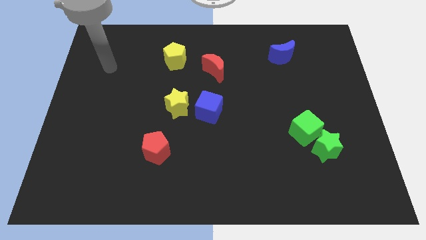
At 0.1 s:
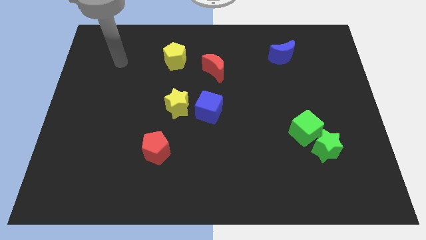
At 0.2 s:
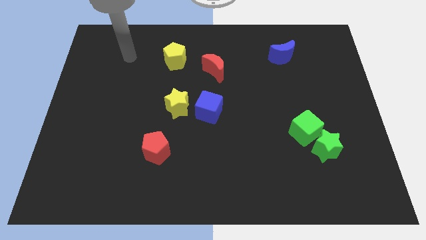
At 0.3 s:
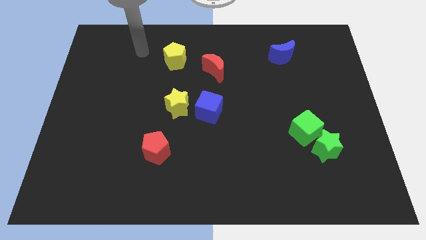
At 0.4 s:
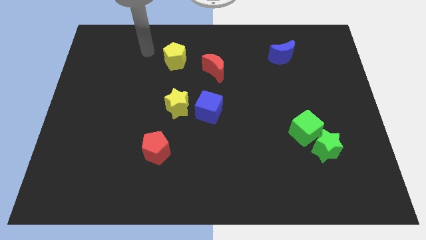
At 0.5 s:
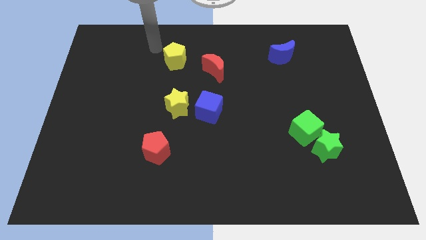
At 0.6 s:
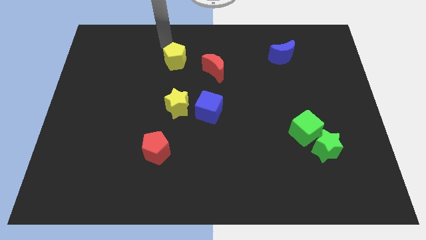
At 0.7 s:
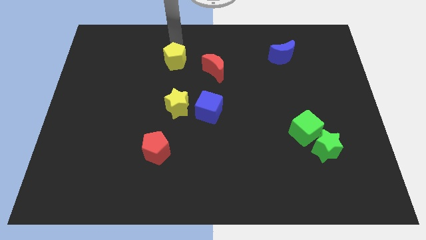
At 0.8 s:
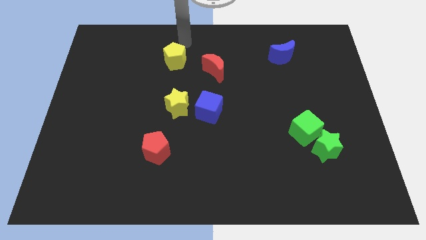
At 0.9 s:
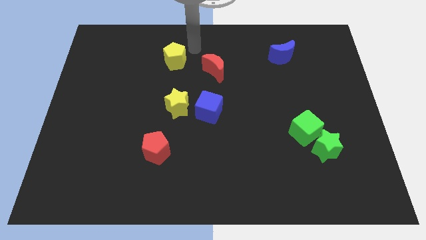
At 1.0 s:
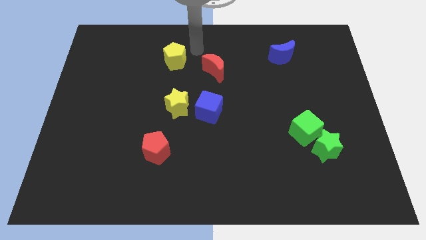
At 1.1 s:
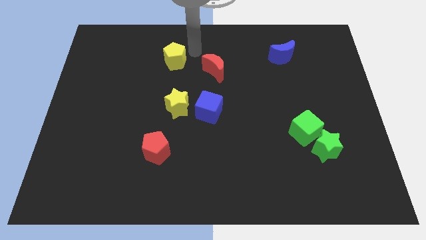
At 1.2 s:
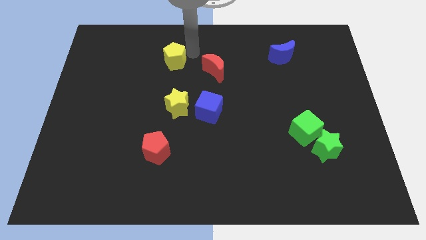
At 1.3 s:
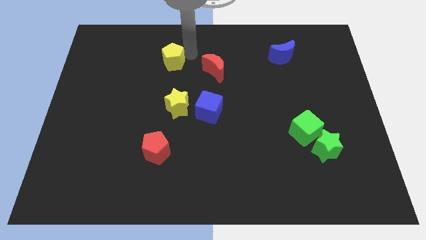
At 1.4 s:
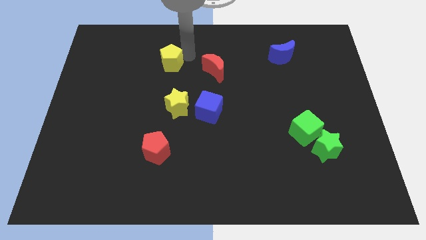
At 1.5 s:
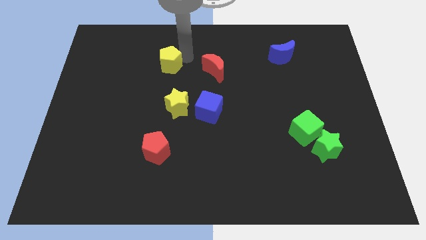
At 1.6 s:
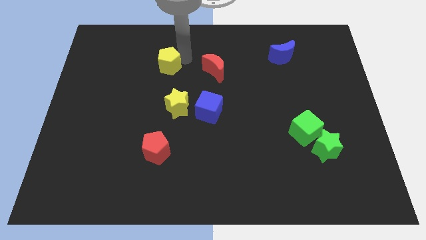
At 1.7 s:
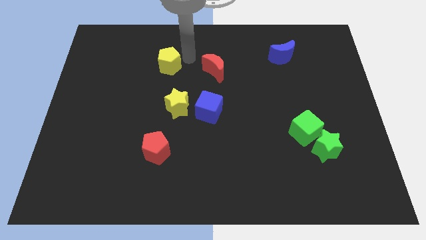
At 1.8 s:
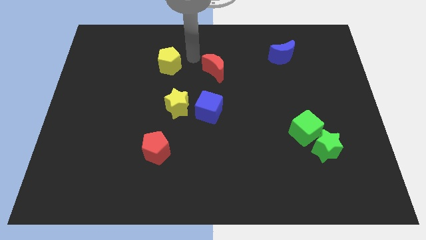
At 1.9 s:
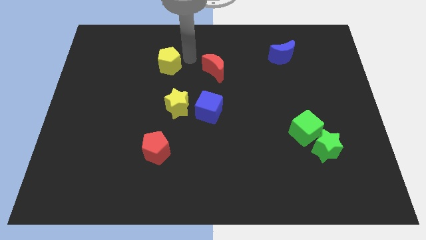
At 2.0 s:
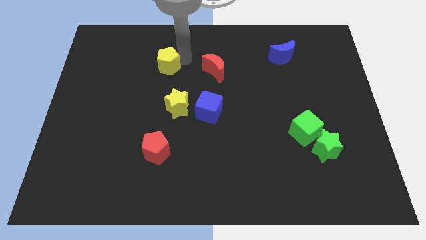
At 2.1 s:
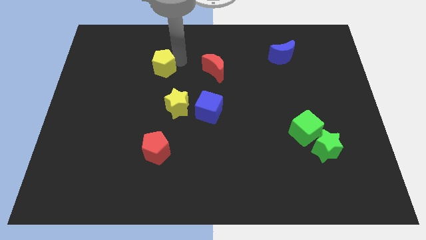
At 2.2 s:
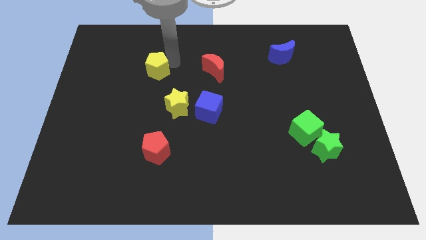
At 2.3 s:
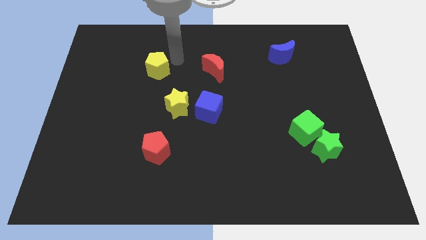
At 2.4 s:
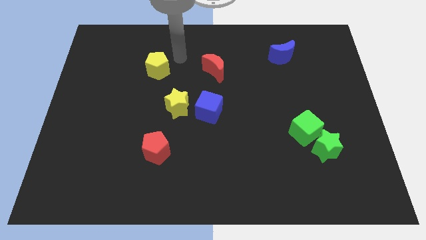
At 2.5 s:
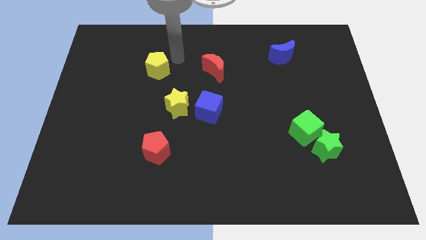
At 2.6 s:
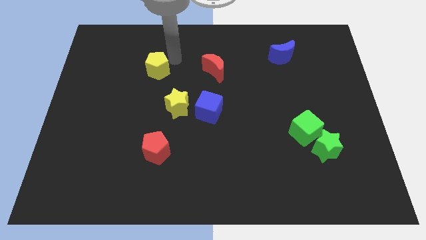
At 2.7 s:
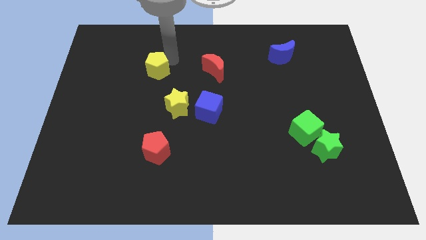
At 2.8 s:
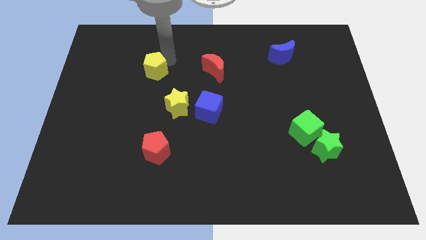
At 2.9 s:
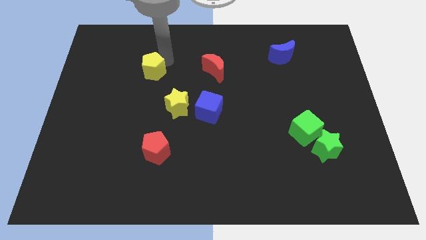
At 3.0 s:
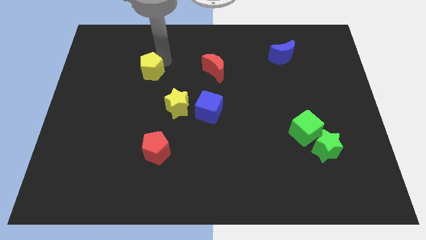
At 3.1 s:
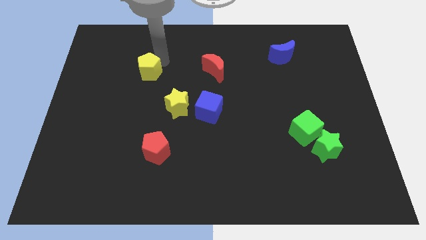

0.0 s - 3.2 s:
slightly move the yellow pentagon diagonally down and to the left

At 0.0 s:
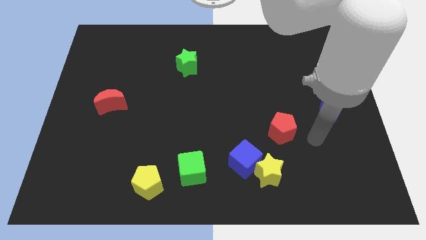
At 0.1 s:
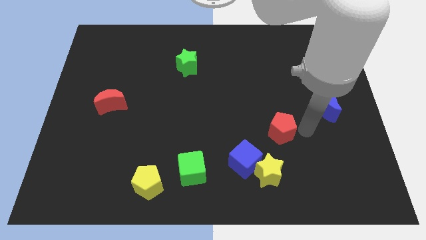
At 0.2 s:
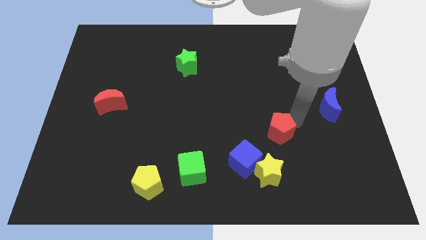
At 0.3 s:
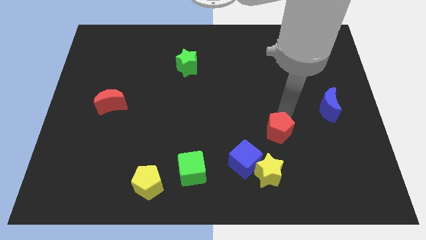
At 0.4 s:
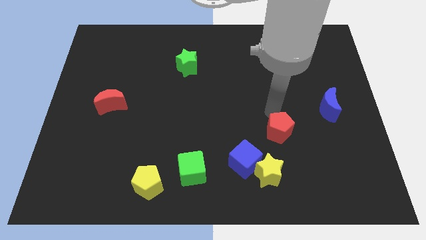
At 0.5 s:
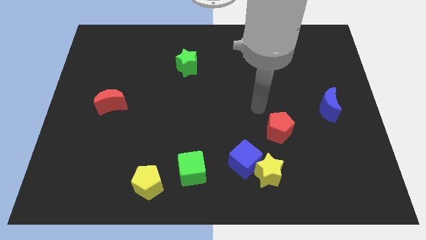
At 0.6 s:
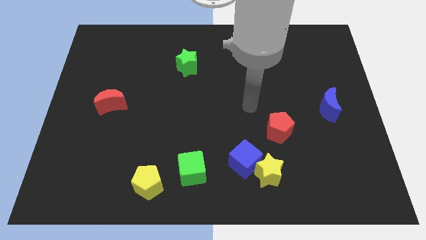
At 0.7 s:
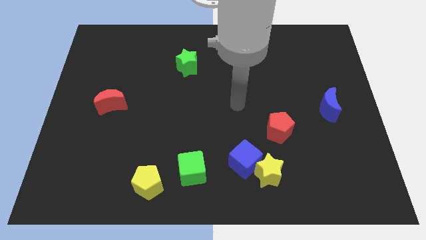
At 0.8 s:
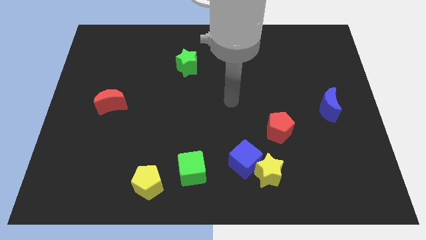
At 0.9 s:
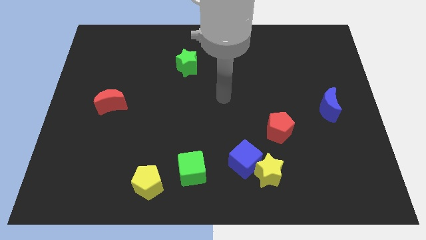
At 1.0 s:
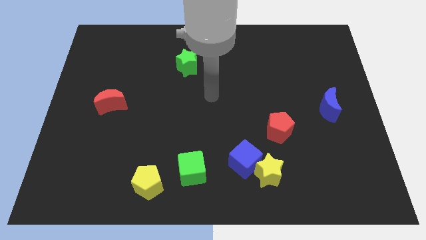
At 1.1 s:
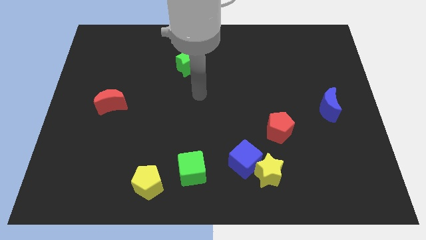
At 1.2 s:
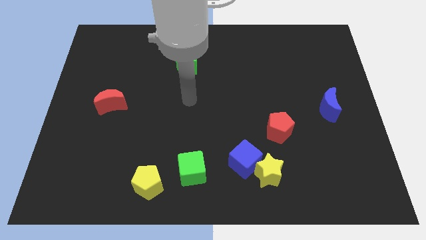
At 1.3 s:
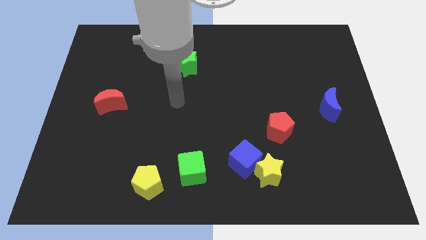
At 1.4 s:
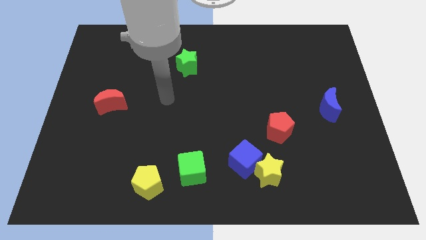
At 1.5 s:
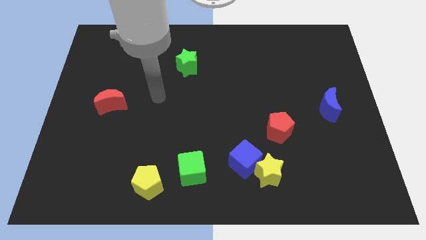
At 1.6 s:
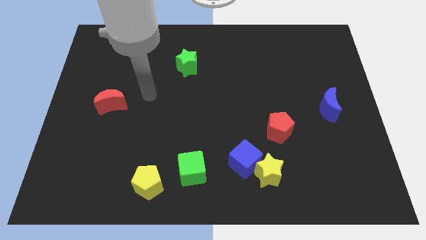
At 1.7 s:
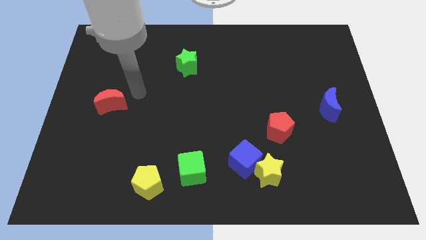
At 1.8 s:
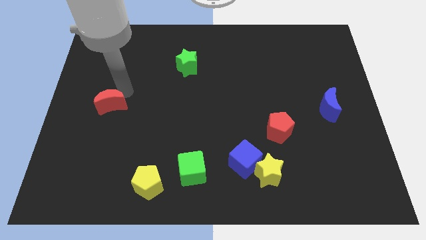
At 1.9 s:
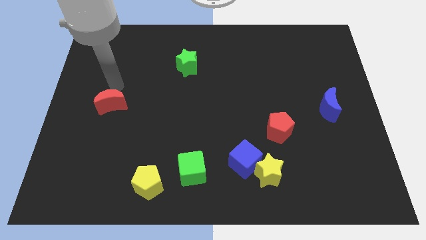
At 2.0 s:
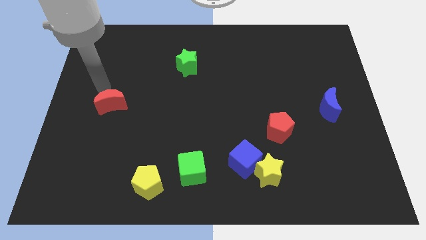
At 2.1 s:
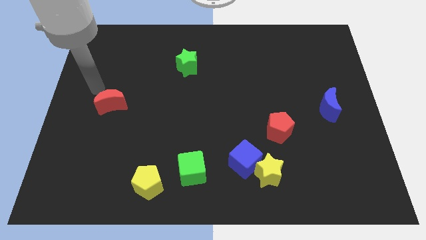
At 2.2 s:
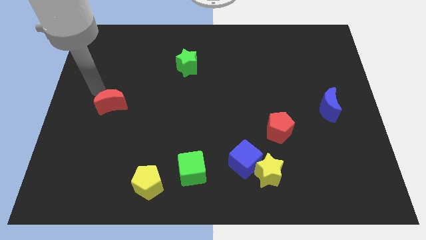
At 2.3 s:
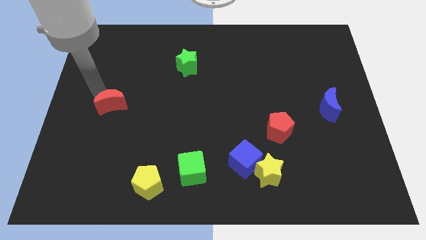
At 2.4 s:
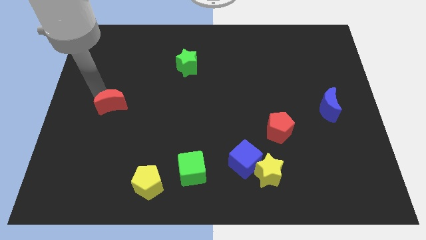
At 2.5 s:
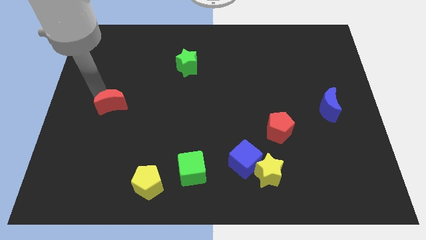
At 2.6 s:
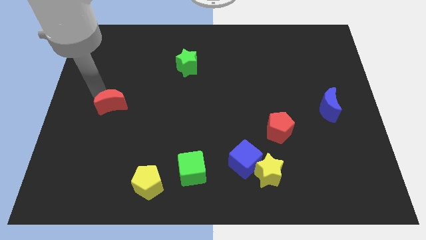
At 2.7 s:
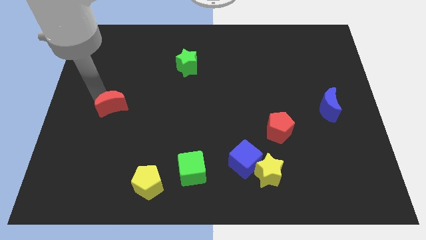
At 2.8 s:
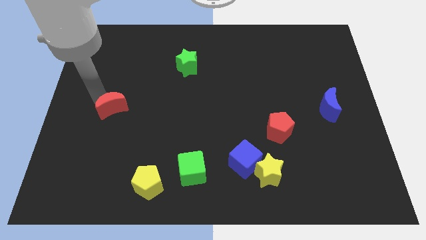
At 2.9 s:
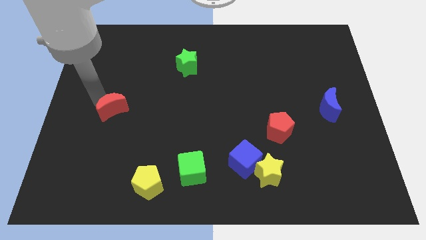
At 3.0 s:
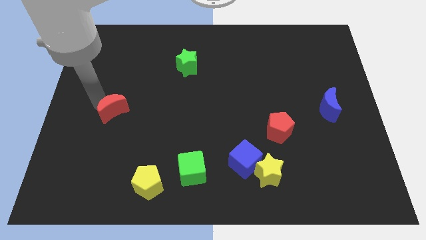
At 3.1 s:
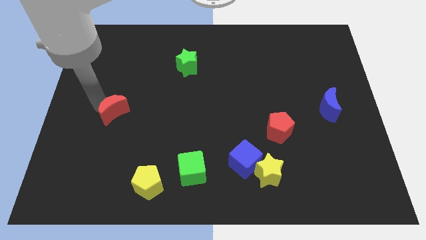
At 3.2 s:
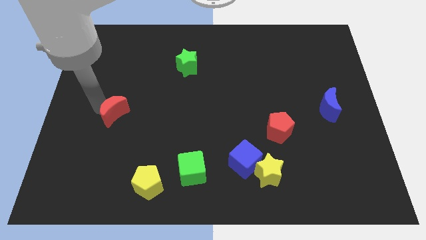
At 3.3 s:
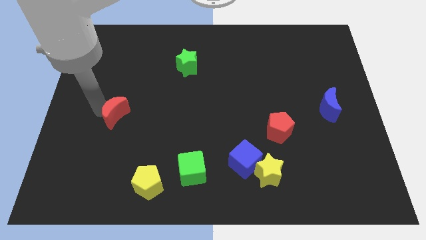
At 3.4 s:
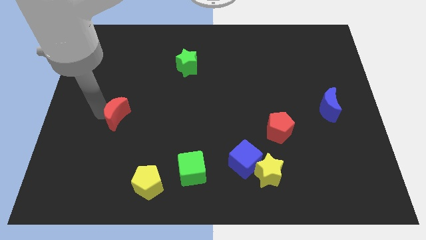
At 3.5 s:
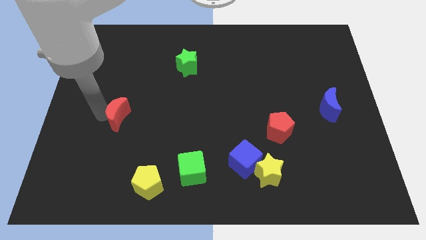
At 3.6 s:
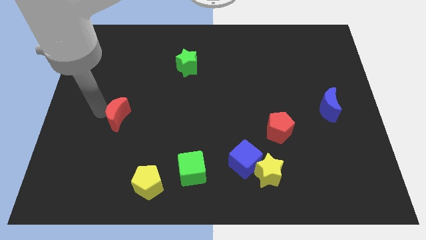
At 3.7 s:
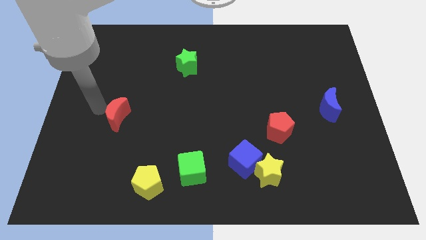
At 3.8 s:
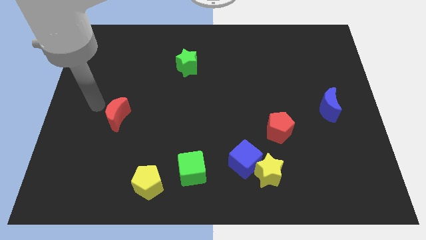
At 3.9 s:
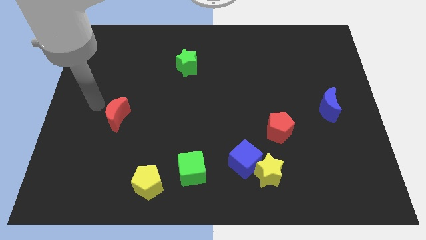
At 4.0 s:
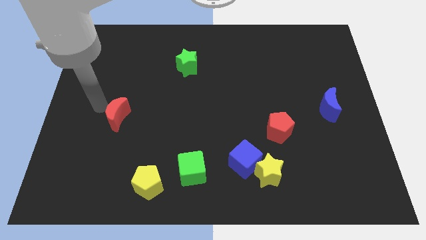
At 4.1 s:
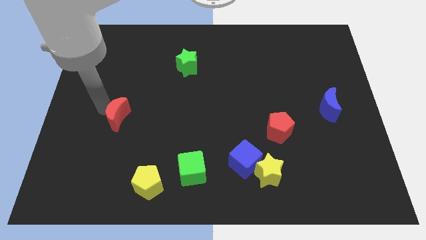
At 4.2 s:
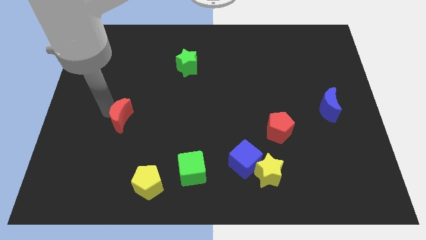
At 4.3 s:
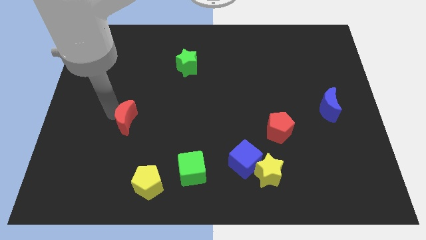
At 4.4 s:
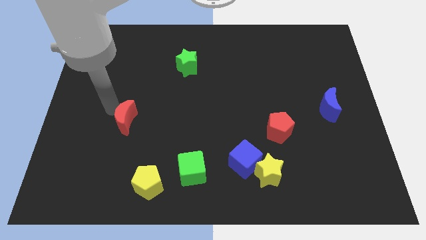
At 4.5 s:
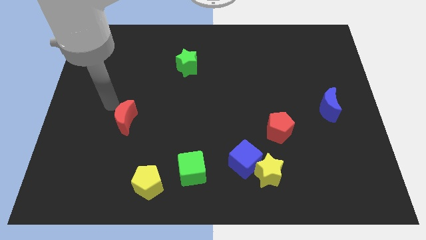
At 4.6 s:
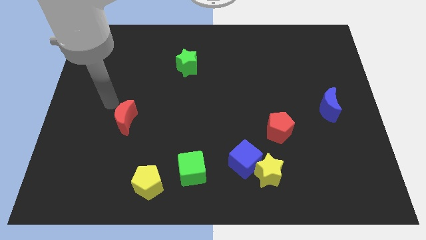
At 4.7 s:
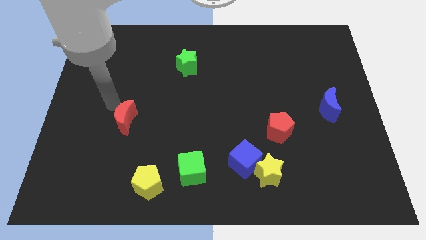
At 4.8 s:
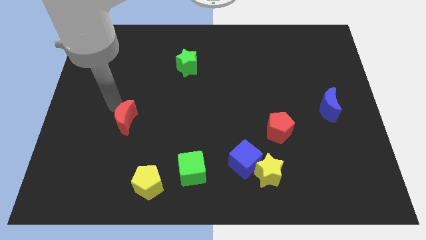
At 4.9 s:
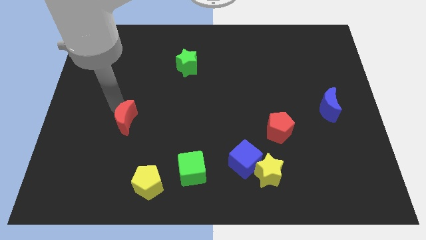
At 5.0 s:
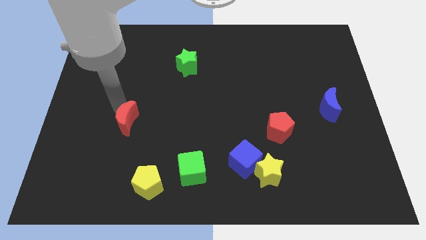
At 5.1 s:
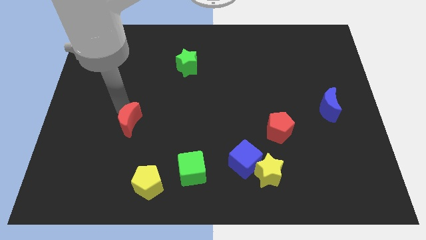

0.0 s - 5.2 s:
slightly move the red moon diagonally down and to the right
